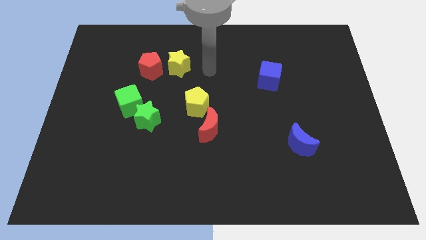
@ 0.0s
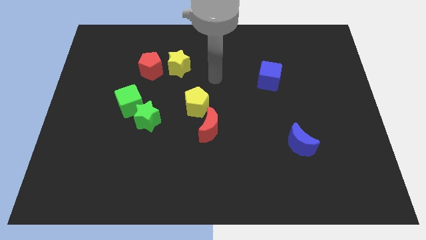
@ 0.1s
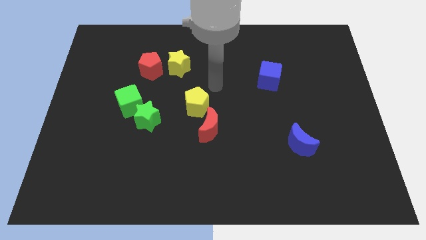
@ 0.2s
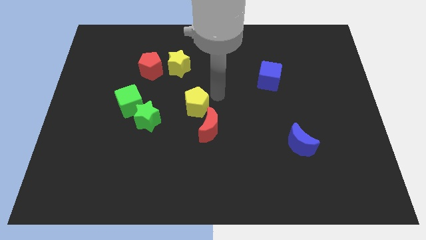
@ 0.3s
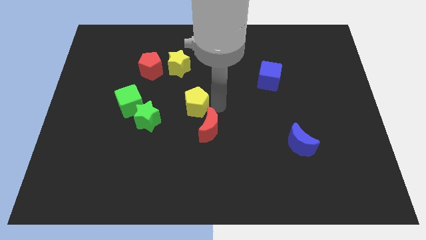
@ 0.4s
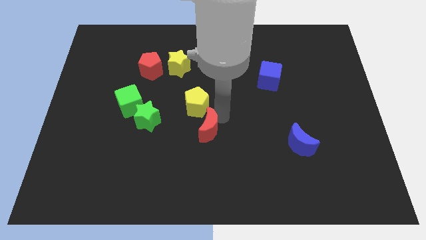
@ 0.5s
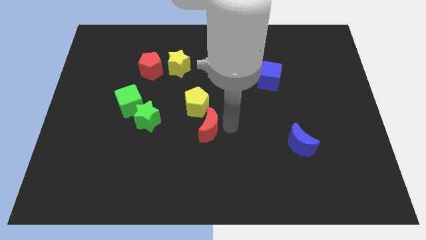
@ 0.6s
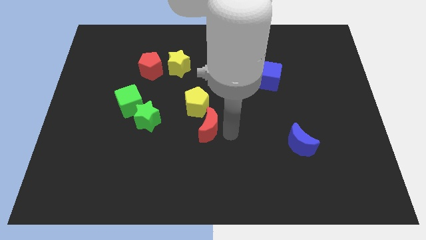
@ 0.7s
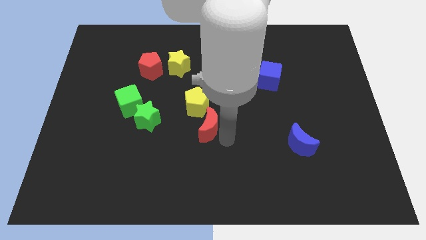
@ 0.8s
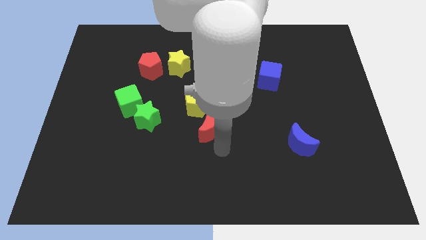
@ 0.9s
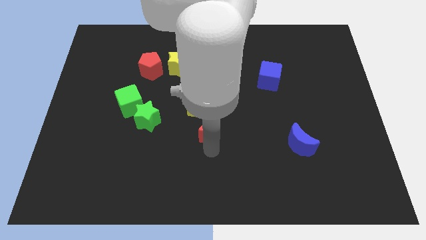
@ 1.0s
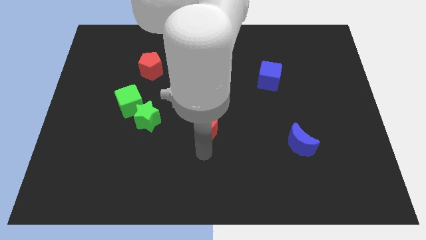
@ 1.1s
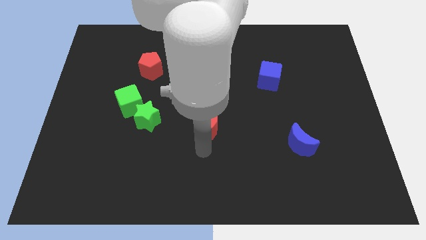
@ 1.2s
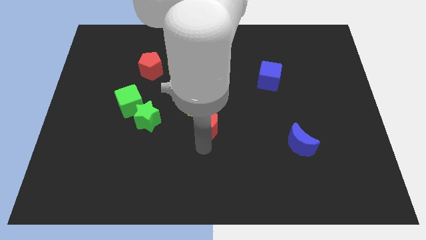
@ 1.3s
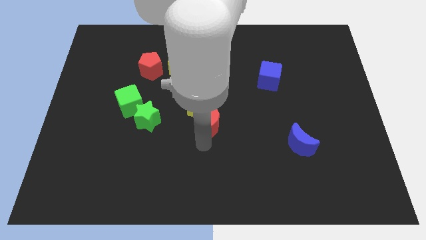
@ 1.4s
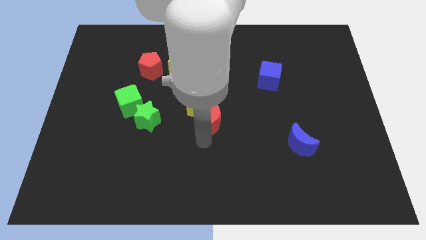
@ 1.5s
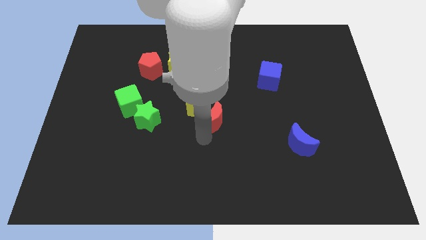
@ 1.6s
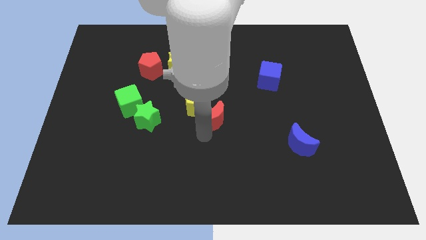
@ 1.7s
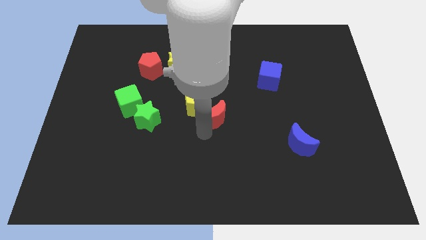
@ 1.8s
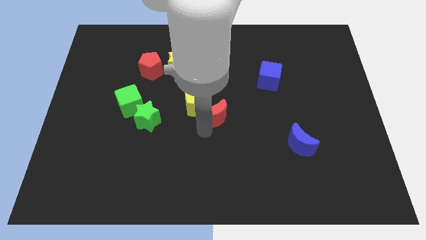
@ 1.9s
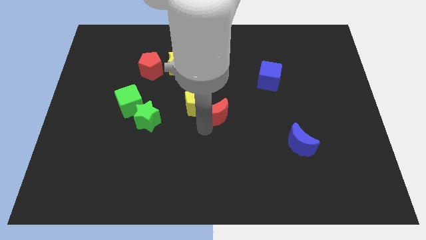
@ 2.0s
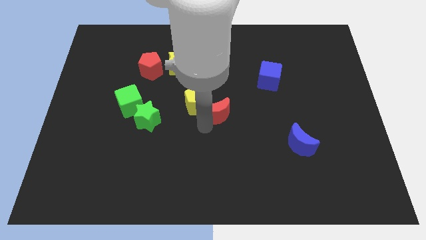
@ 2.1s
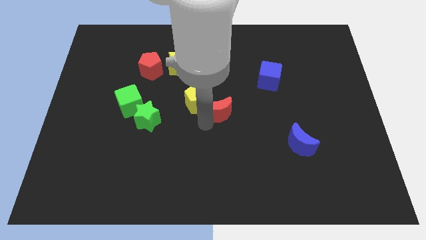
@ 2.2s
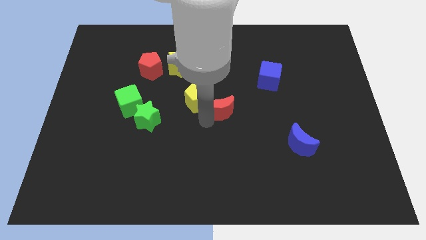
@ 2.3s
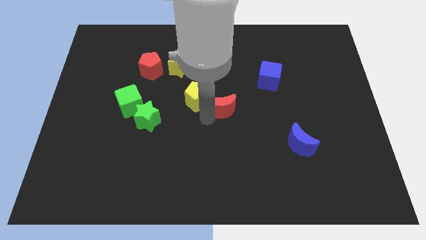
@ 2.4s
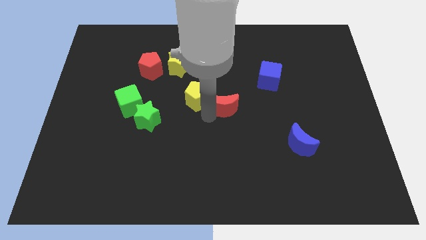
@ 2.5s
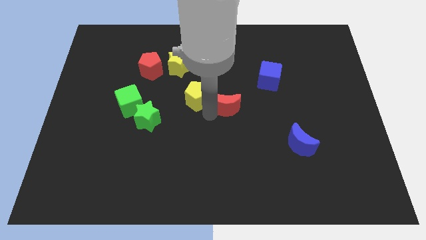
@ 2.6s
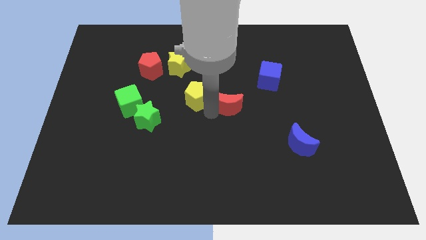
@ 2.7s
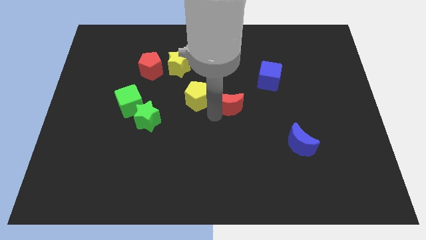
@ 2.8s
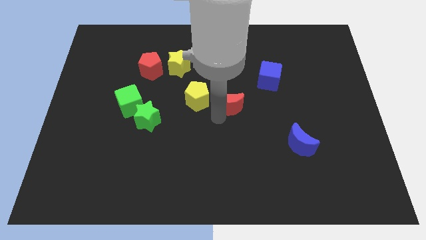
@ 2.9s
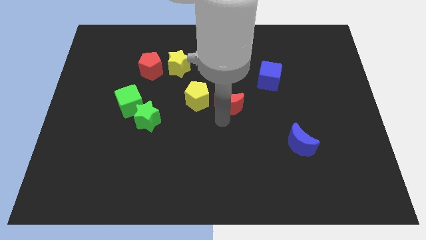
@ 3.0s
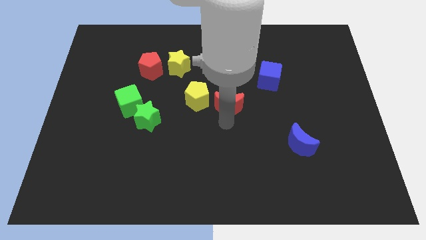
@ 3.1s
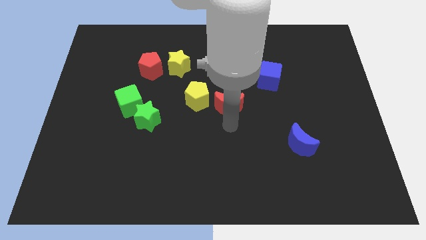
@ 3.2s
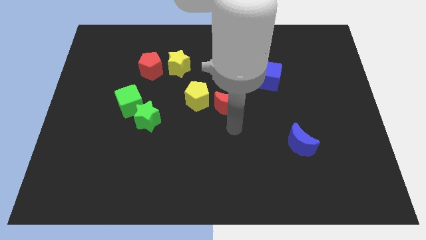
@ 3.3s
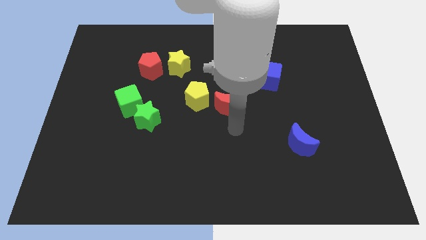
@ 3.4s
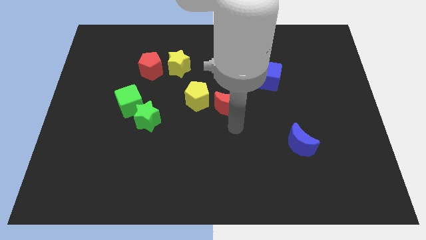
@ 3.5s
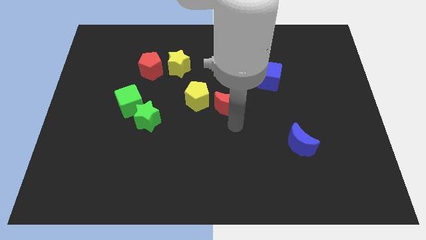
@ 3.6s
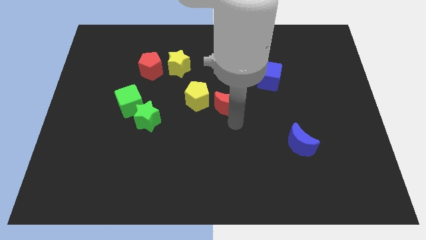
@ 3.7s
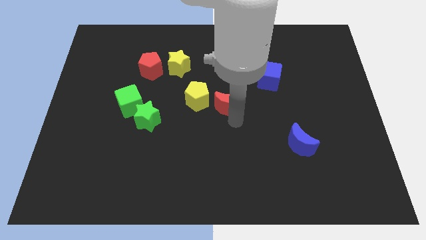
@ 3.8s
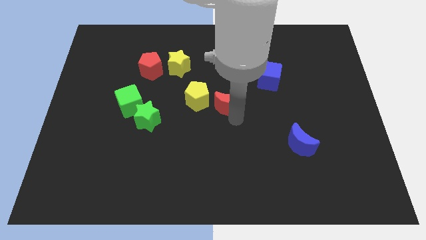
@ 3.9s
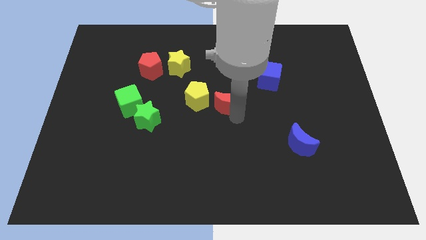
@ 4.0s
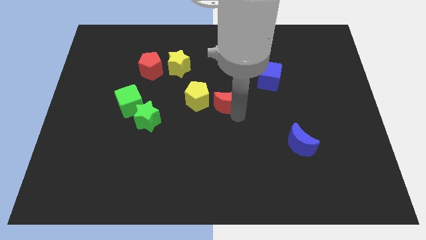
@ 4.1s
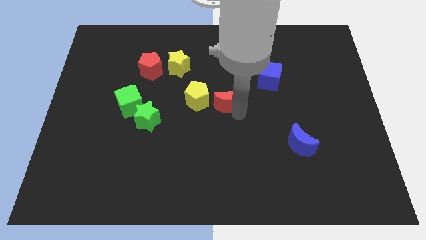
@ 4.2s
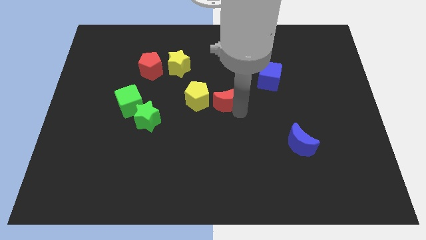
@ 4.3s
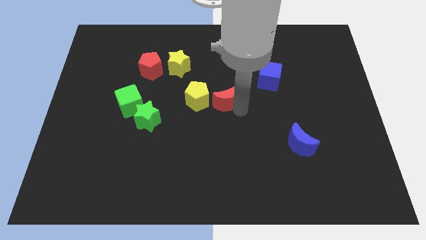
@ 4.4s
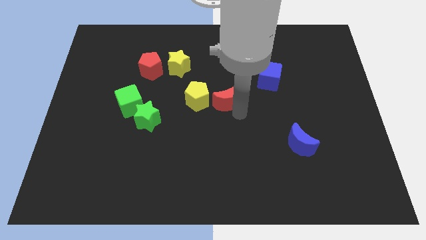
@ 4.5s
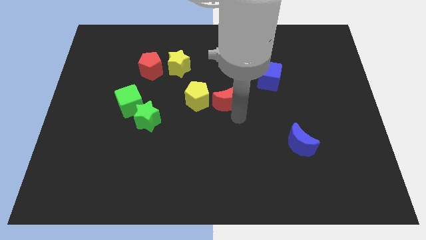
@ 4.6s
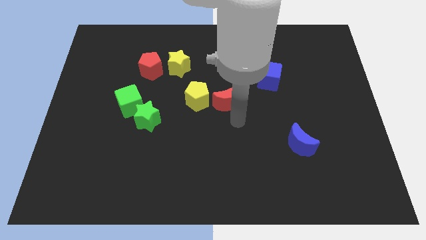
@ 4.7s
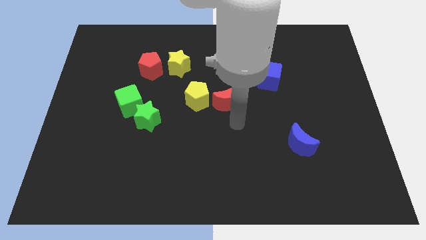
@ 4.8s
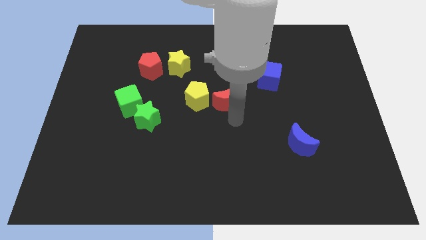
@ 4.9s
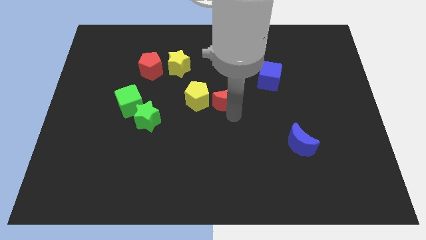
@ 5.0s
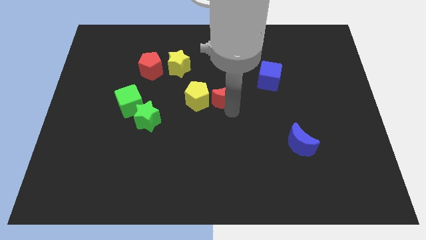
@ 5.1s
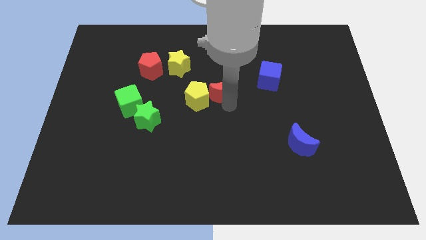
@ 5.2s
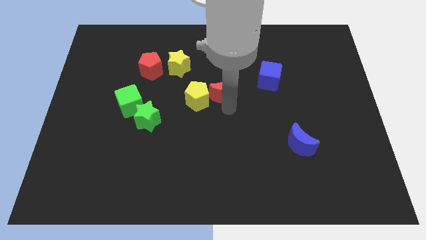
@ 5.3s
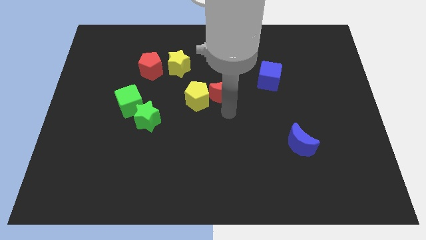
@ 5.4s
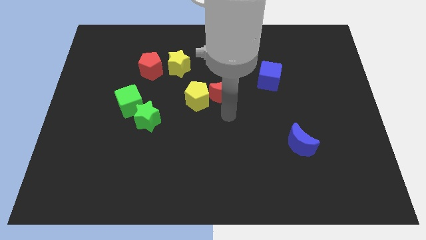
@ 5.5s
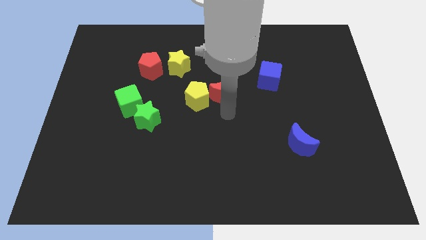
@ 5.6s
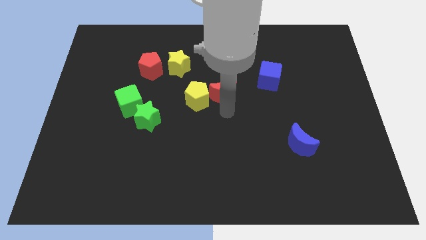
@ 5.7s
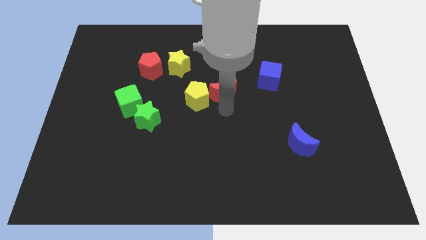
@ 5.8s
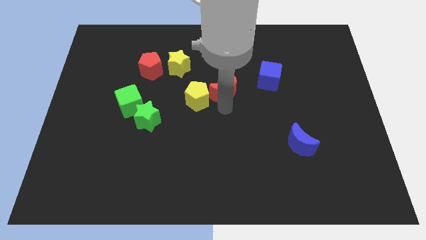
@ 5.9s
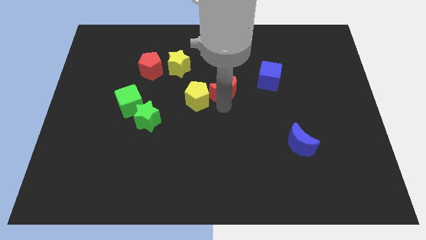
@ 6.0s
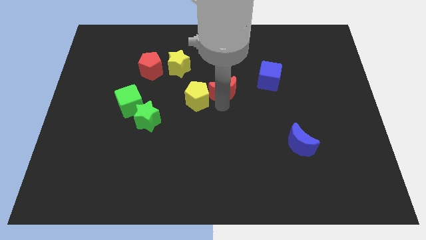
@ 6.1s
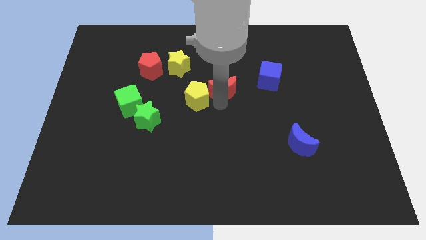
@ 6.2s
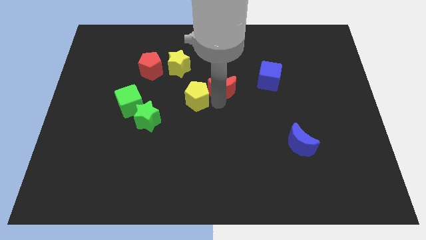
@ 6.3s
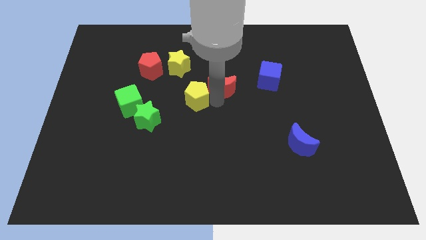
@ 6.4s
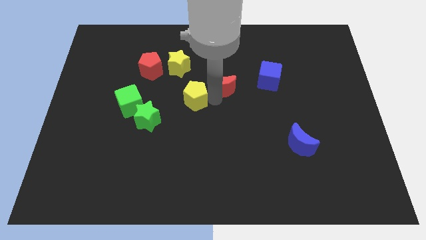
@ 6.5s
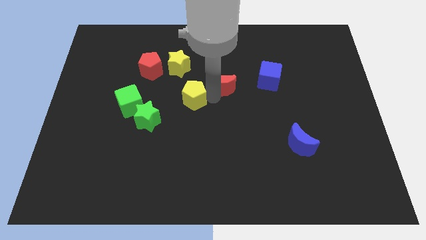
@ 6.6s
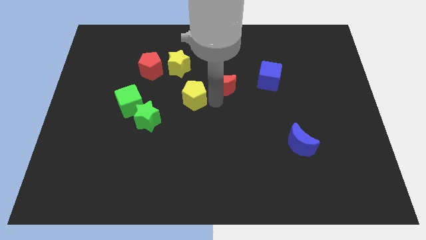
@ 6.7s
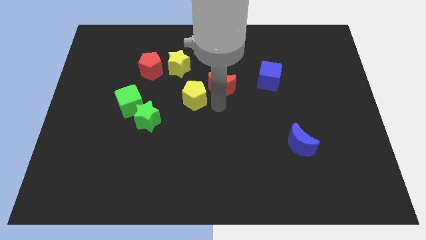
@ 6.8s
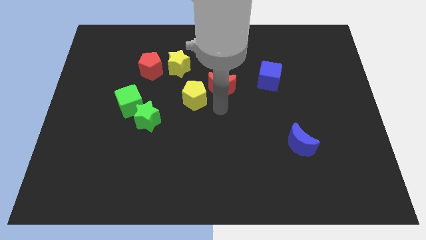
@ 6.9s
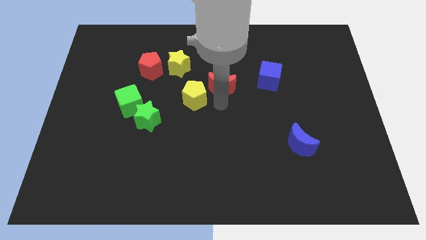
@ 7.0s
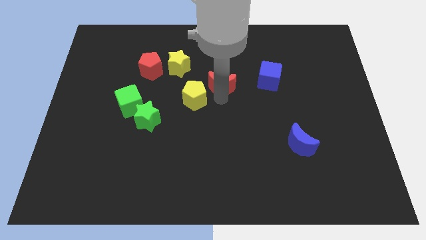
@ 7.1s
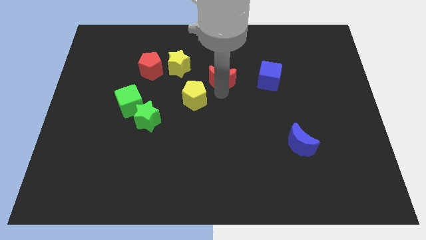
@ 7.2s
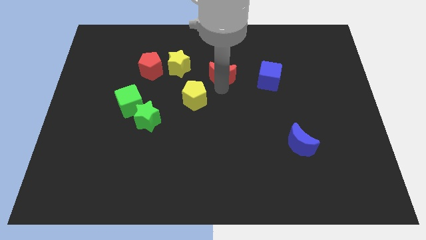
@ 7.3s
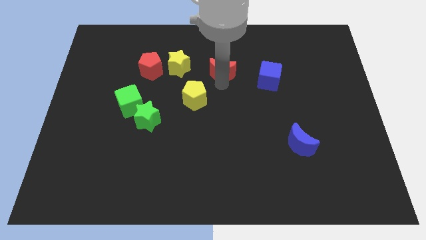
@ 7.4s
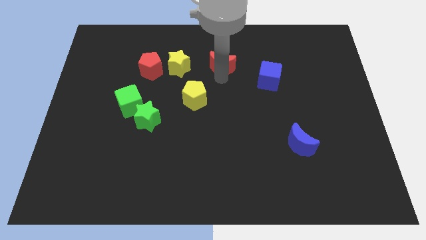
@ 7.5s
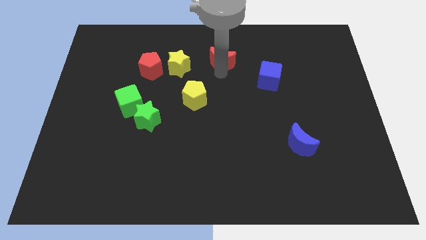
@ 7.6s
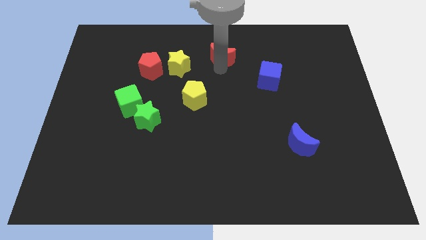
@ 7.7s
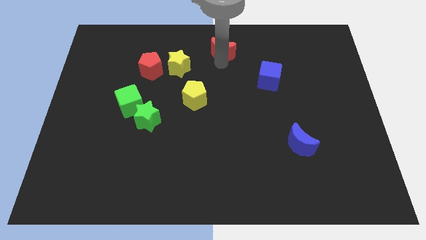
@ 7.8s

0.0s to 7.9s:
push the red moon to the top
